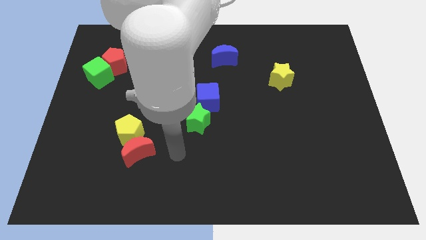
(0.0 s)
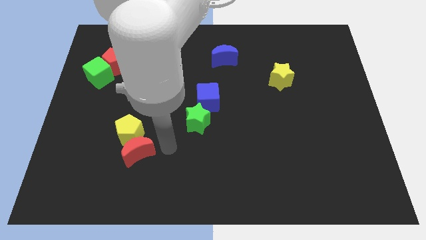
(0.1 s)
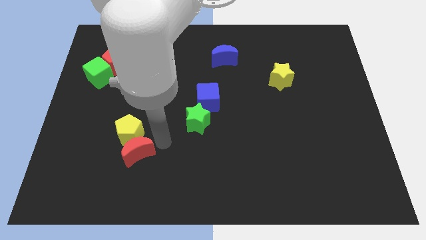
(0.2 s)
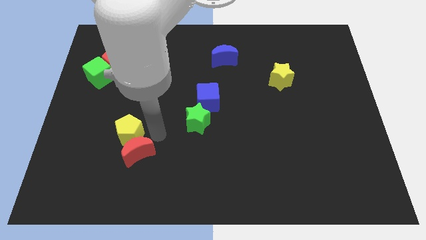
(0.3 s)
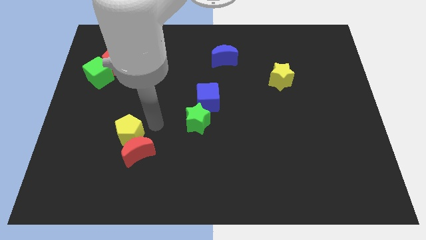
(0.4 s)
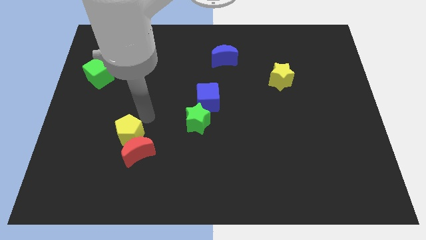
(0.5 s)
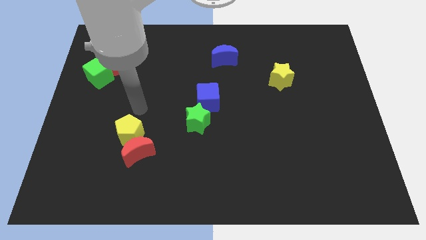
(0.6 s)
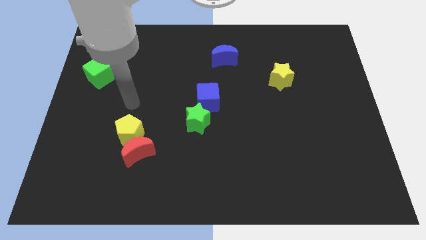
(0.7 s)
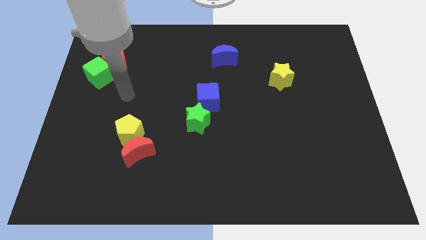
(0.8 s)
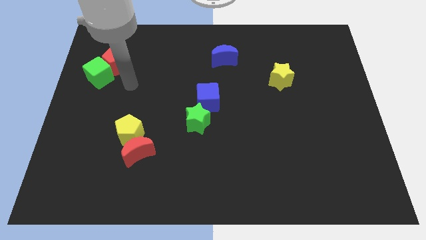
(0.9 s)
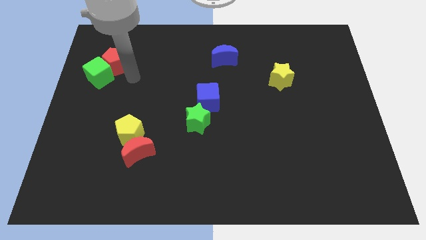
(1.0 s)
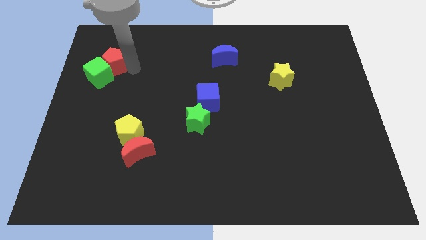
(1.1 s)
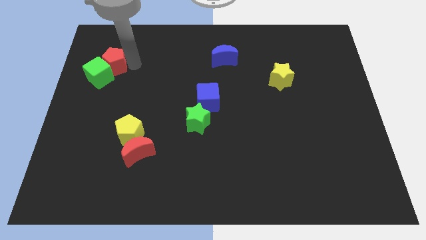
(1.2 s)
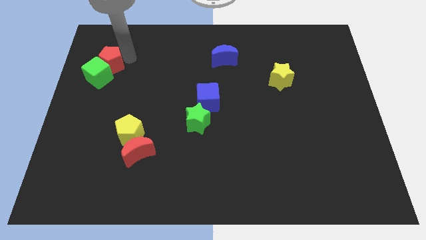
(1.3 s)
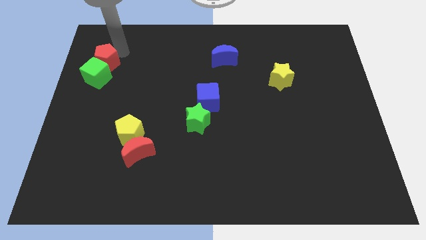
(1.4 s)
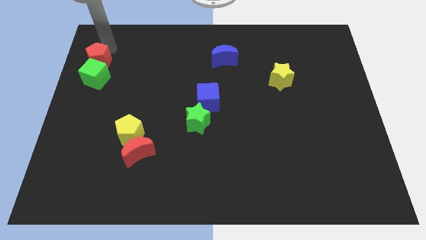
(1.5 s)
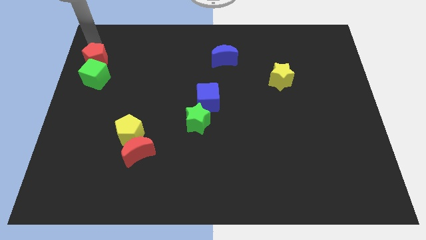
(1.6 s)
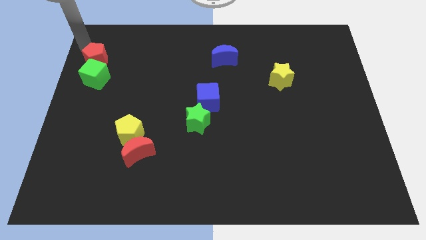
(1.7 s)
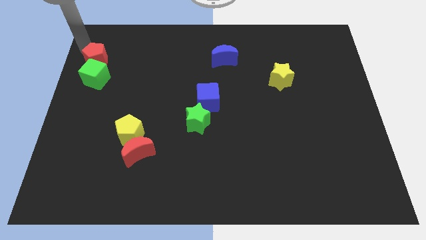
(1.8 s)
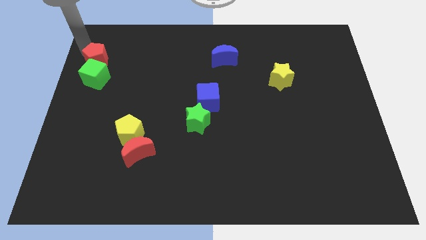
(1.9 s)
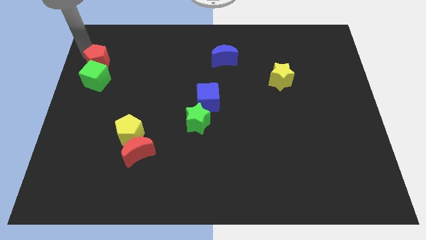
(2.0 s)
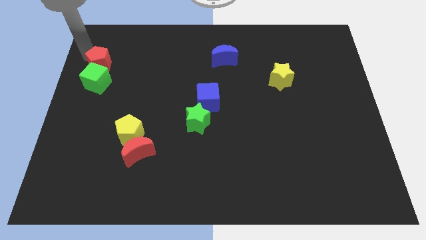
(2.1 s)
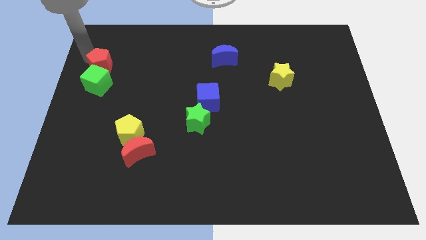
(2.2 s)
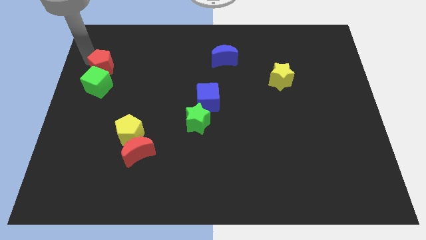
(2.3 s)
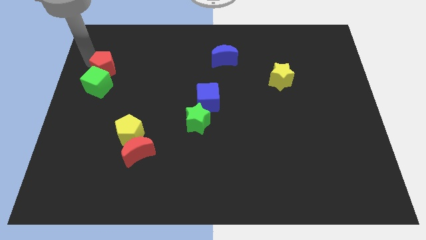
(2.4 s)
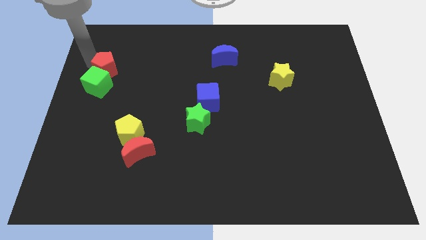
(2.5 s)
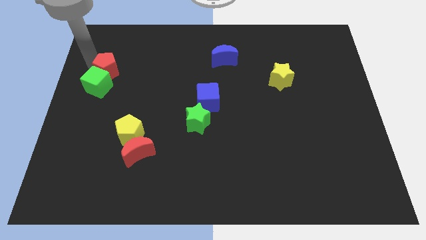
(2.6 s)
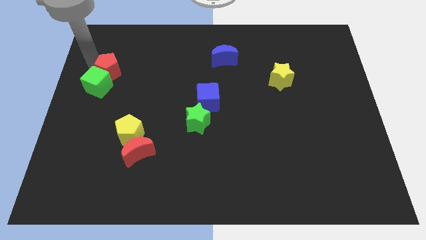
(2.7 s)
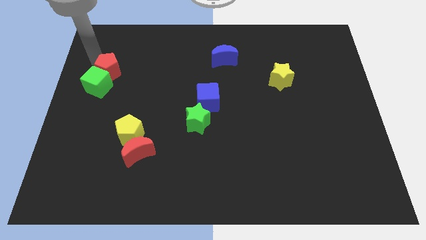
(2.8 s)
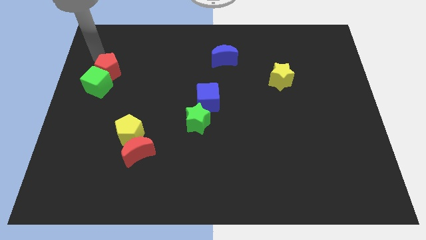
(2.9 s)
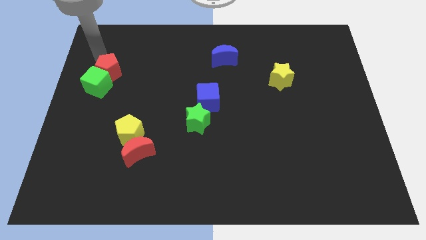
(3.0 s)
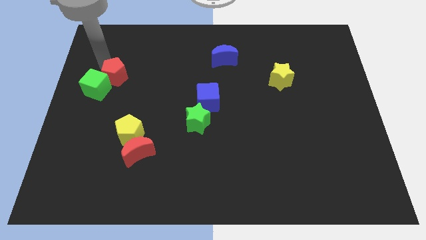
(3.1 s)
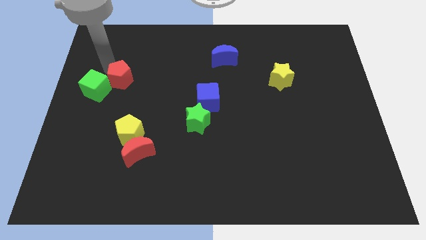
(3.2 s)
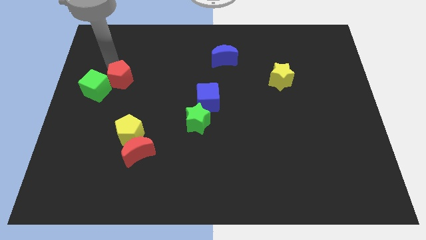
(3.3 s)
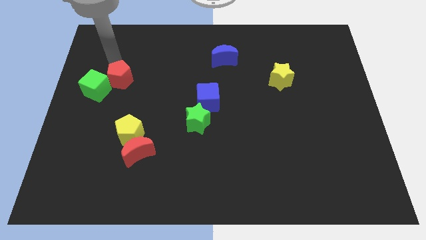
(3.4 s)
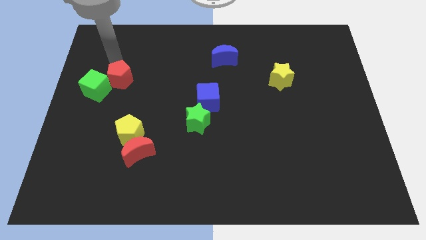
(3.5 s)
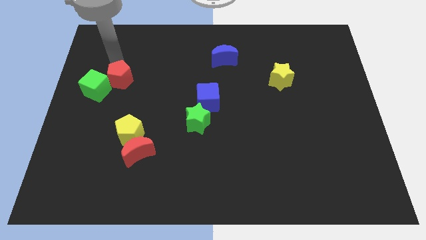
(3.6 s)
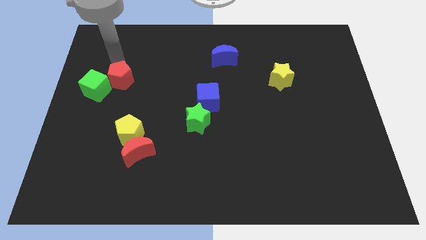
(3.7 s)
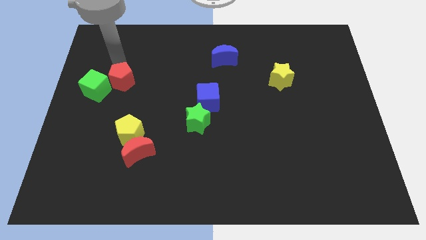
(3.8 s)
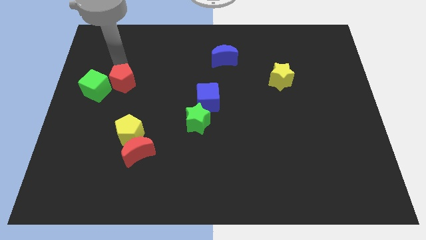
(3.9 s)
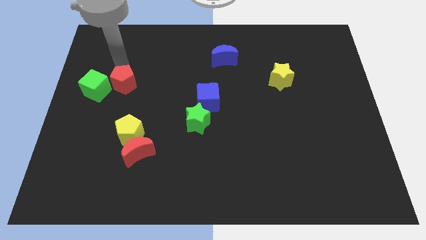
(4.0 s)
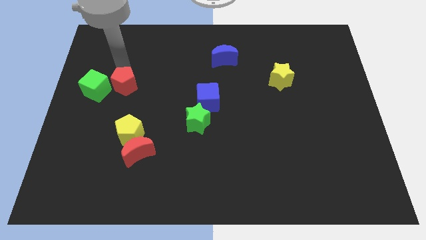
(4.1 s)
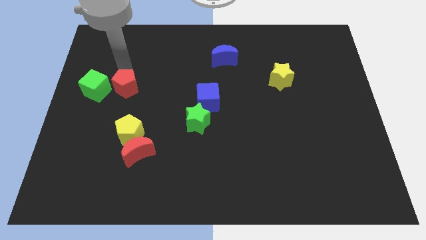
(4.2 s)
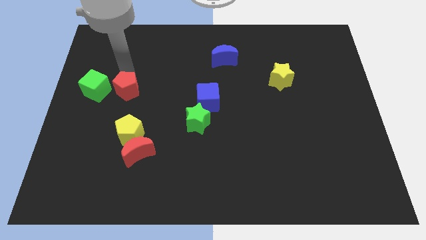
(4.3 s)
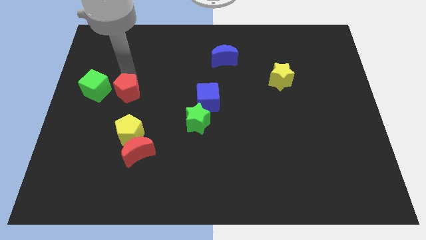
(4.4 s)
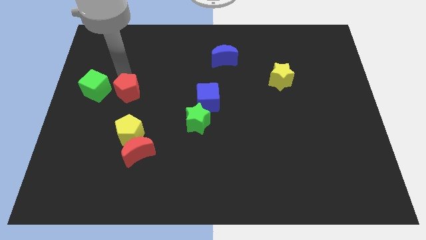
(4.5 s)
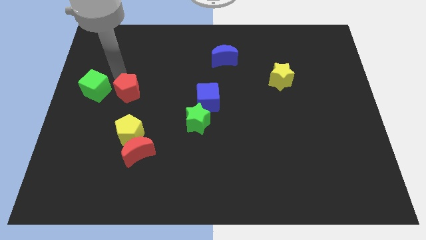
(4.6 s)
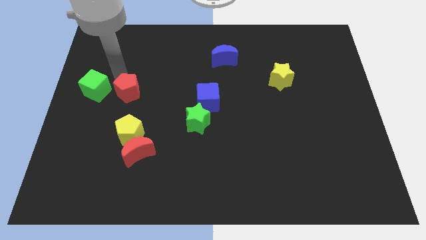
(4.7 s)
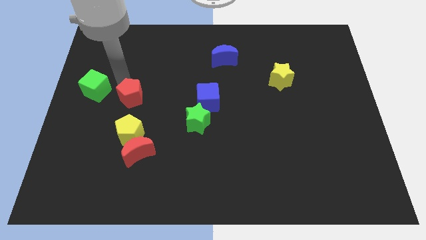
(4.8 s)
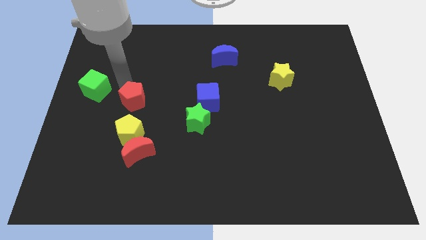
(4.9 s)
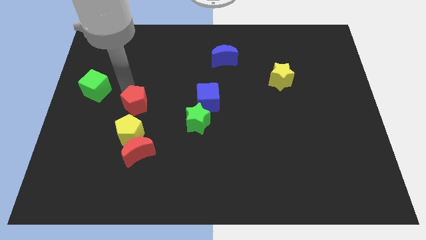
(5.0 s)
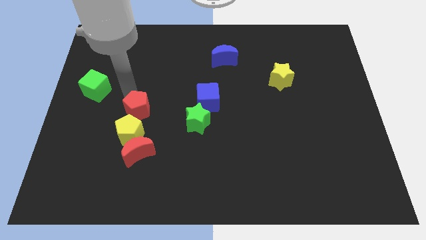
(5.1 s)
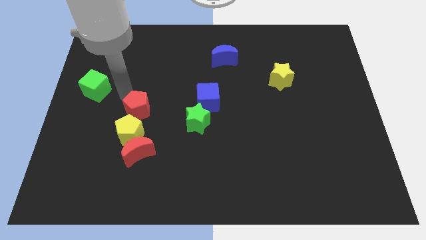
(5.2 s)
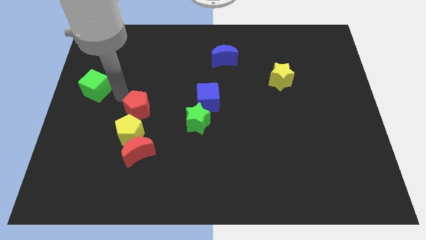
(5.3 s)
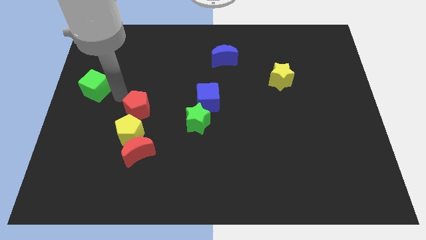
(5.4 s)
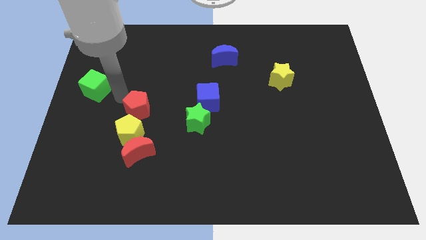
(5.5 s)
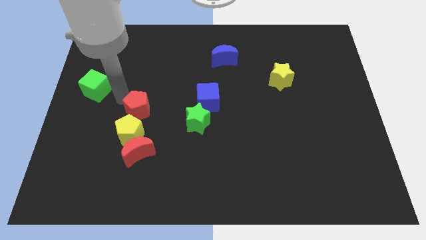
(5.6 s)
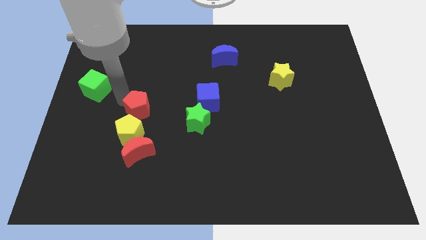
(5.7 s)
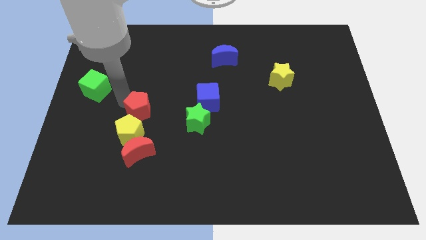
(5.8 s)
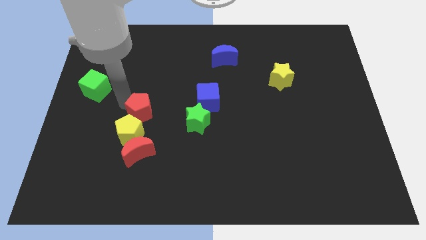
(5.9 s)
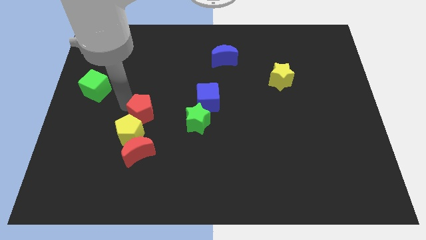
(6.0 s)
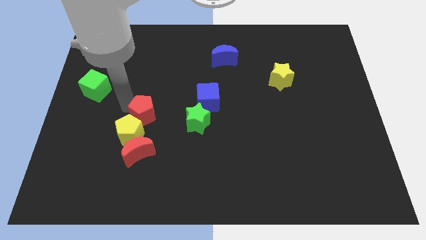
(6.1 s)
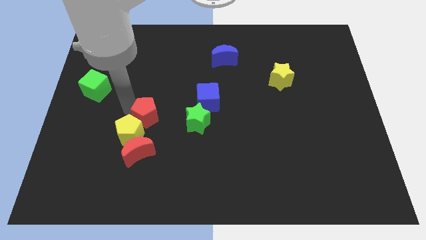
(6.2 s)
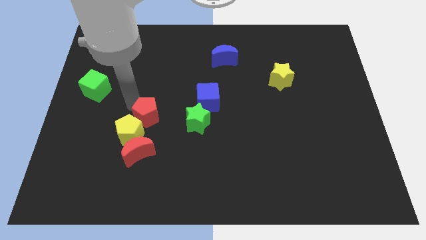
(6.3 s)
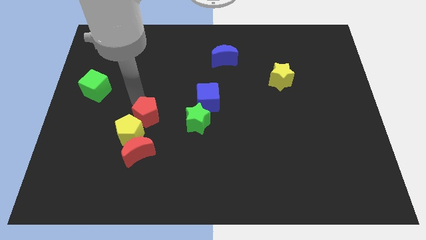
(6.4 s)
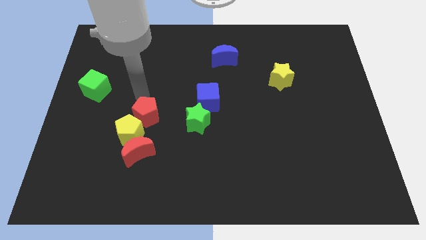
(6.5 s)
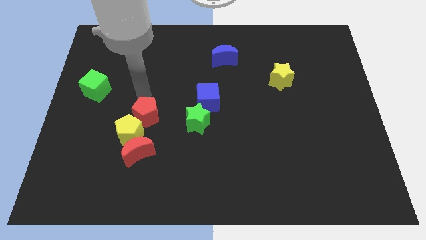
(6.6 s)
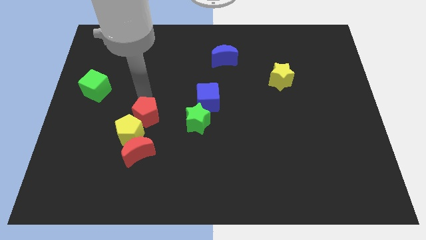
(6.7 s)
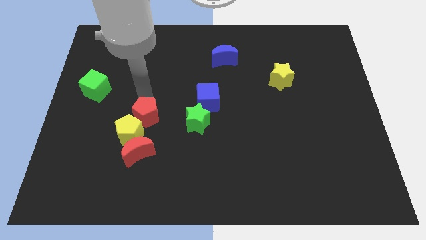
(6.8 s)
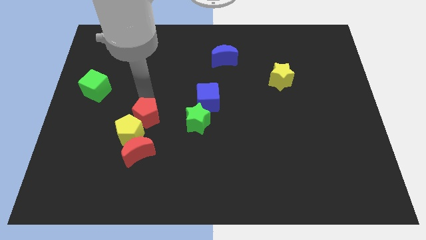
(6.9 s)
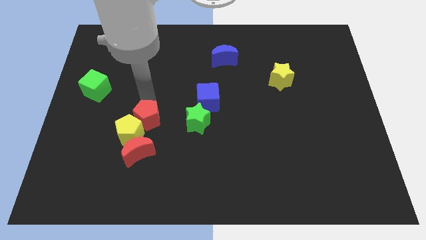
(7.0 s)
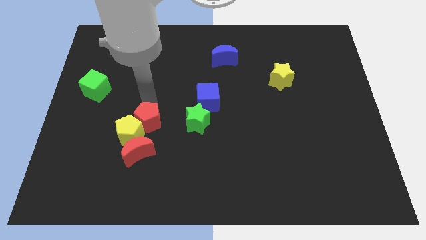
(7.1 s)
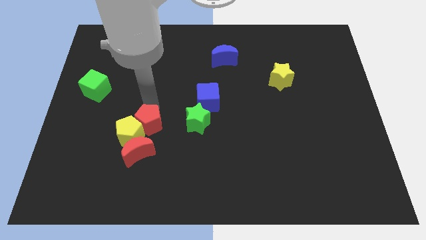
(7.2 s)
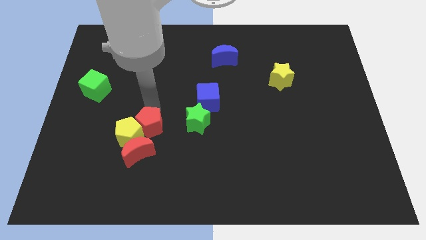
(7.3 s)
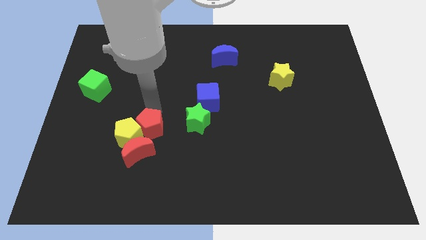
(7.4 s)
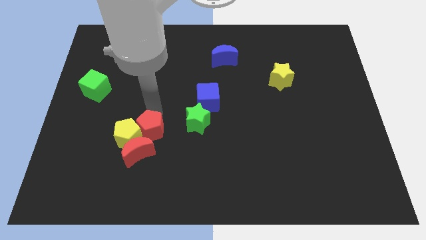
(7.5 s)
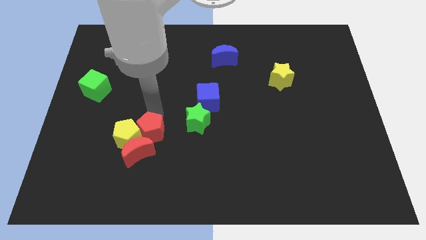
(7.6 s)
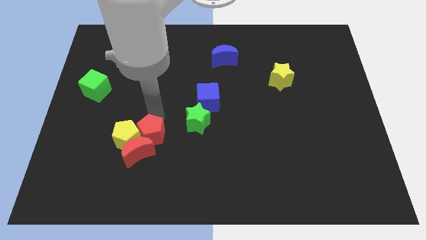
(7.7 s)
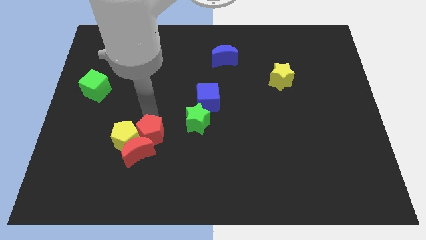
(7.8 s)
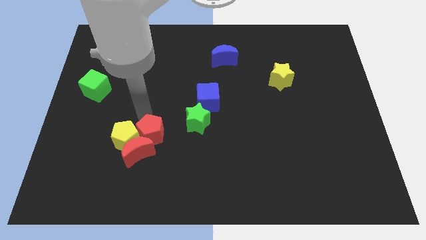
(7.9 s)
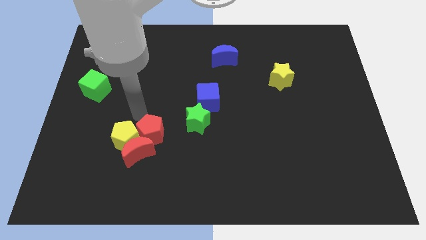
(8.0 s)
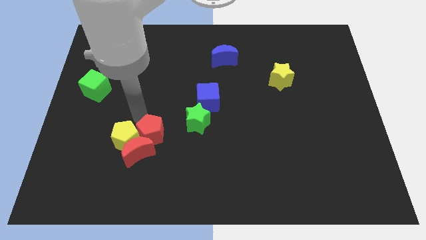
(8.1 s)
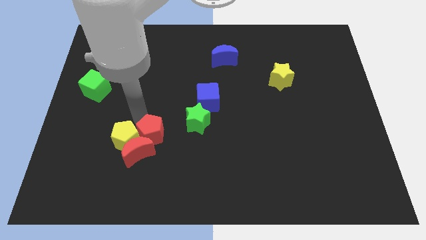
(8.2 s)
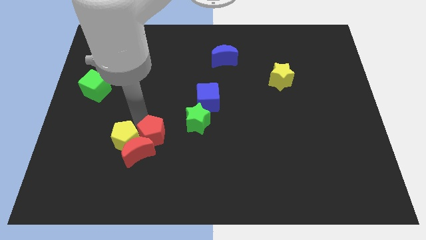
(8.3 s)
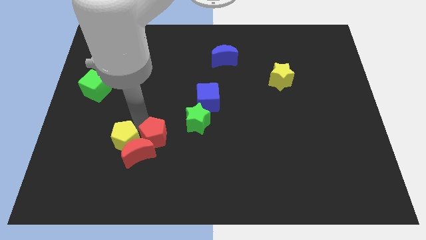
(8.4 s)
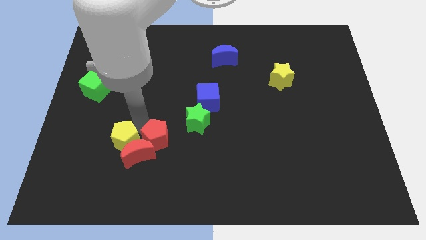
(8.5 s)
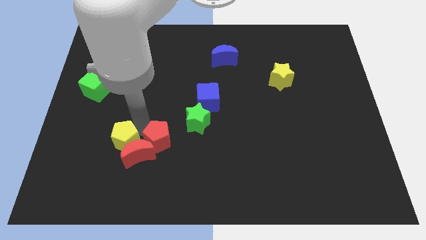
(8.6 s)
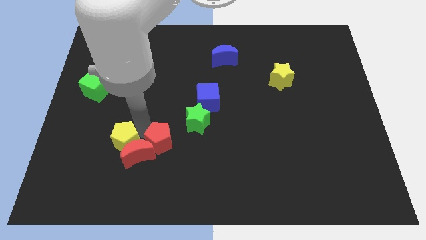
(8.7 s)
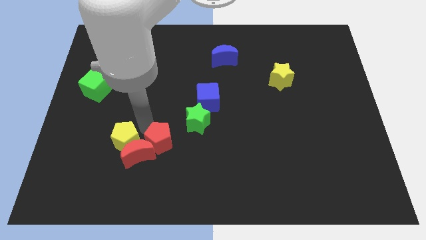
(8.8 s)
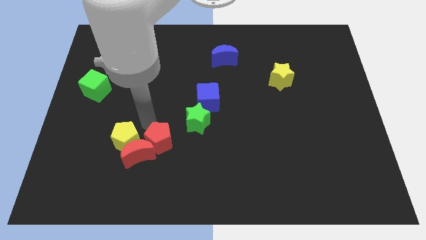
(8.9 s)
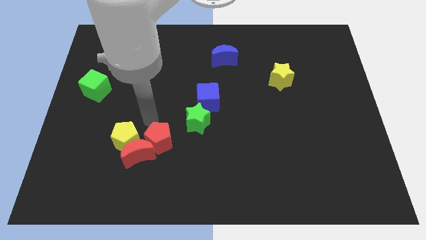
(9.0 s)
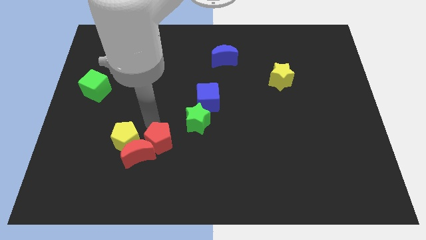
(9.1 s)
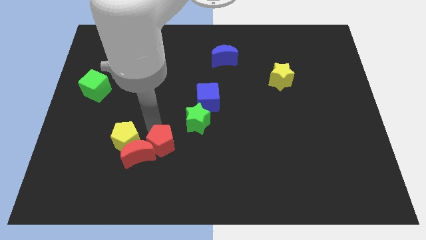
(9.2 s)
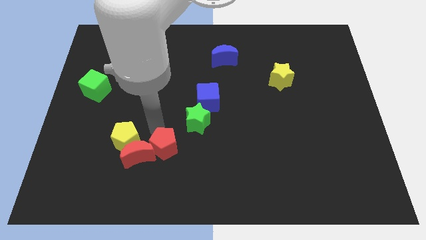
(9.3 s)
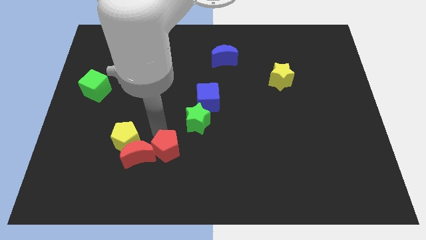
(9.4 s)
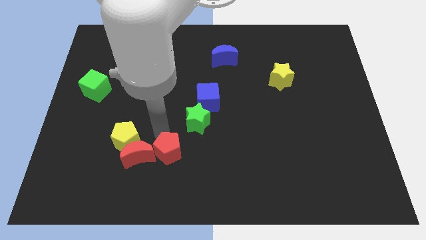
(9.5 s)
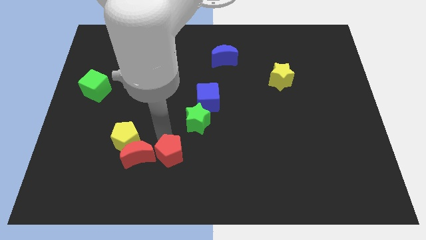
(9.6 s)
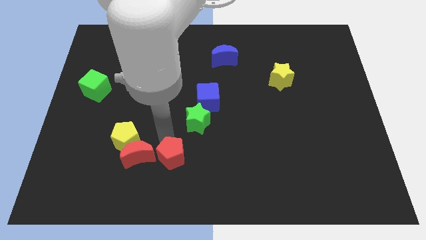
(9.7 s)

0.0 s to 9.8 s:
move the red pentagon to the bottom right side of the red moon
